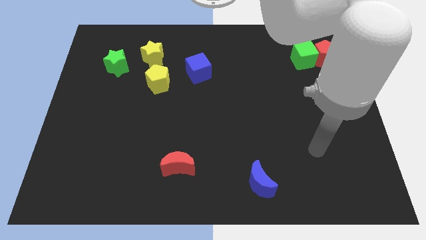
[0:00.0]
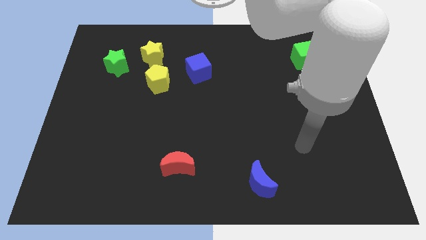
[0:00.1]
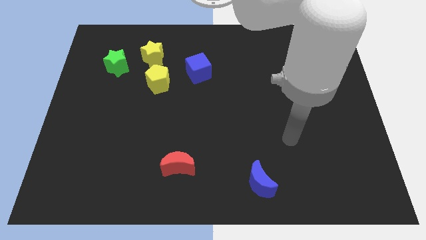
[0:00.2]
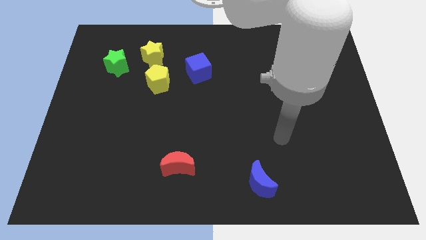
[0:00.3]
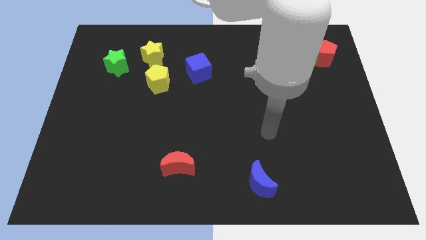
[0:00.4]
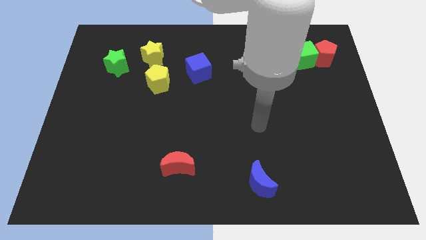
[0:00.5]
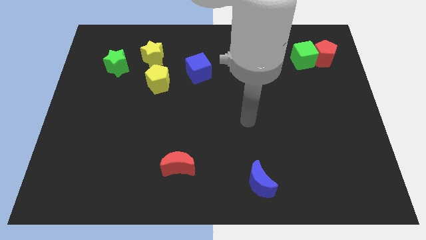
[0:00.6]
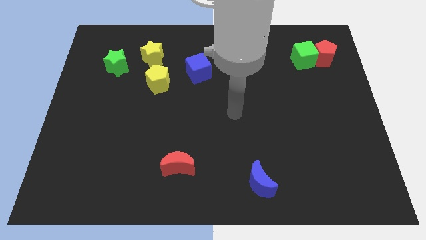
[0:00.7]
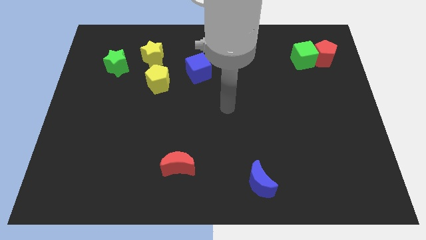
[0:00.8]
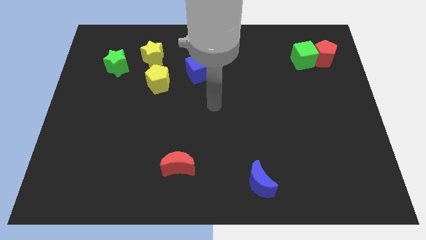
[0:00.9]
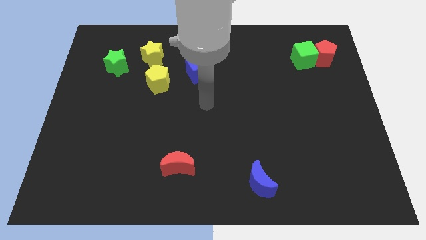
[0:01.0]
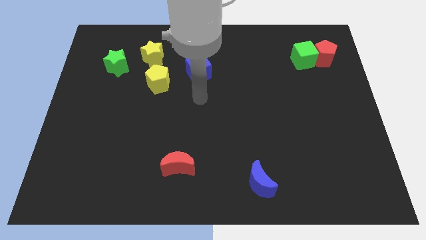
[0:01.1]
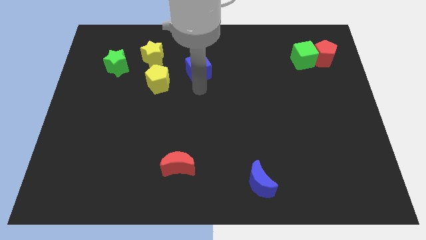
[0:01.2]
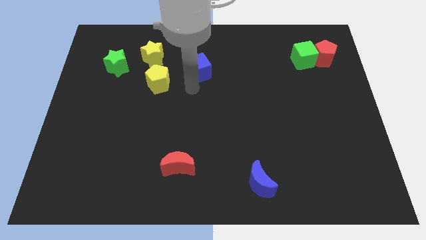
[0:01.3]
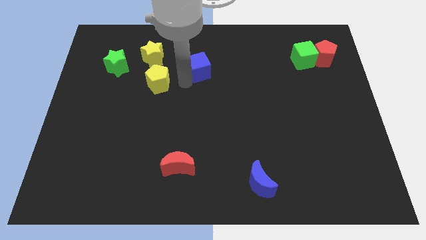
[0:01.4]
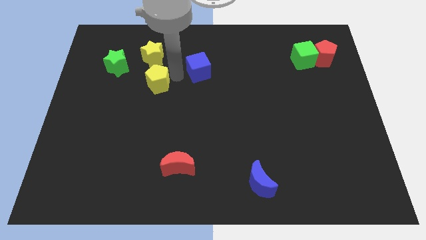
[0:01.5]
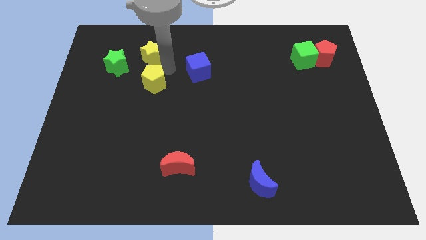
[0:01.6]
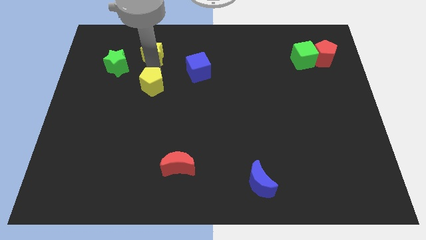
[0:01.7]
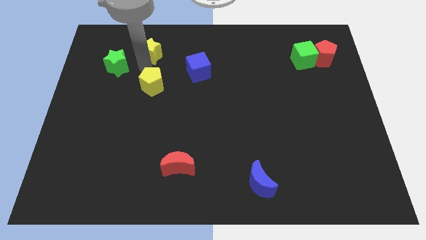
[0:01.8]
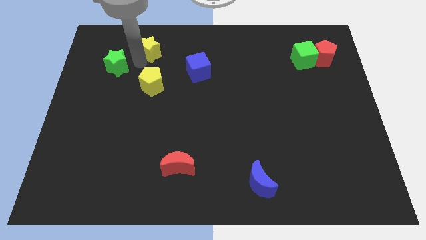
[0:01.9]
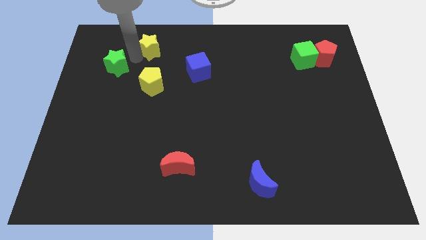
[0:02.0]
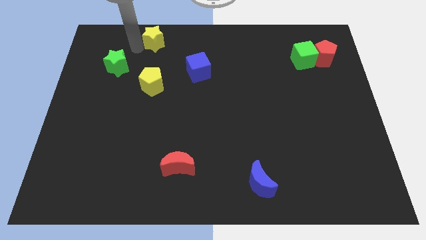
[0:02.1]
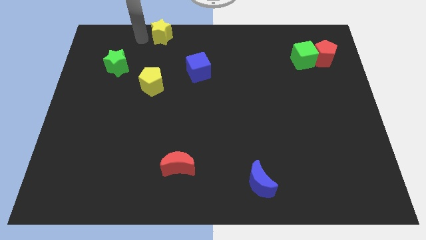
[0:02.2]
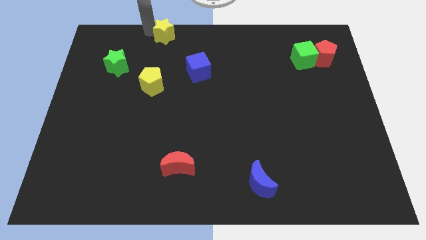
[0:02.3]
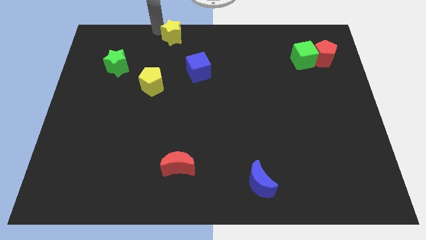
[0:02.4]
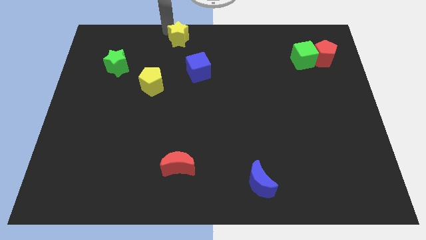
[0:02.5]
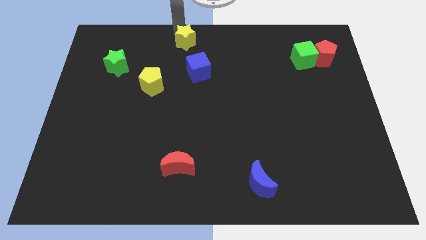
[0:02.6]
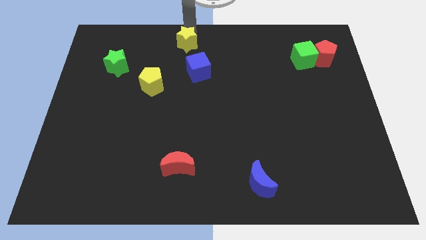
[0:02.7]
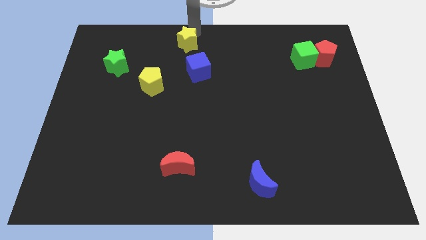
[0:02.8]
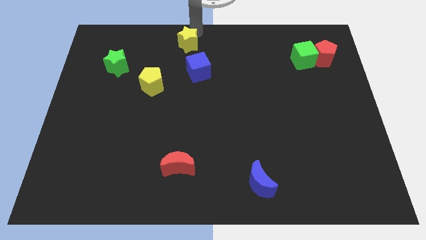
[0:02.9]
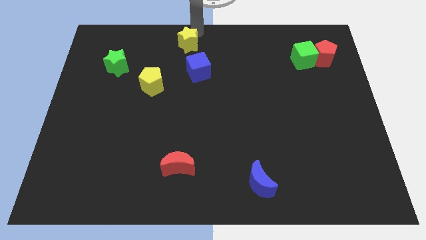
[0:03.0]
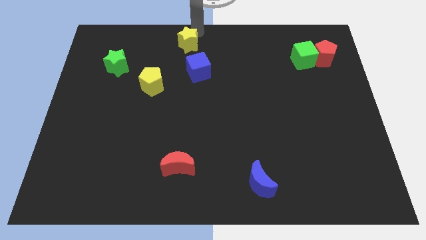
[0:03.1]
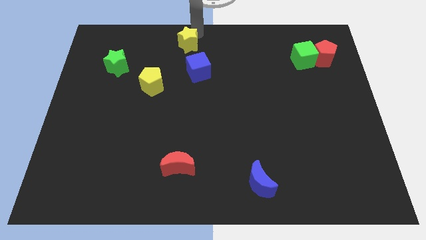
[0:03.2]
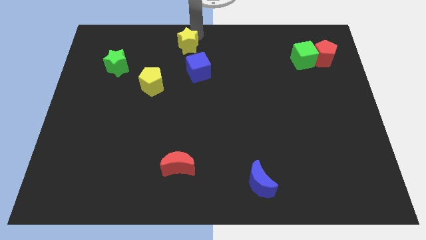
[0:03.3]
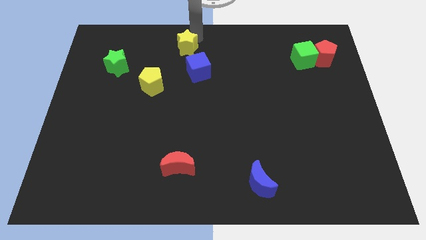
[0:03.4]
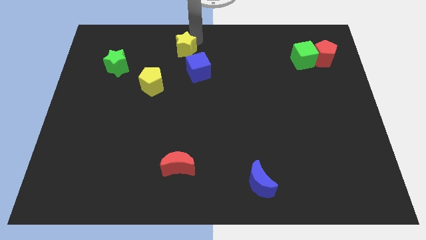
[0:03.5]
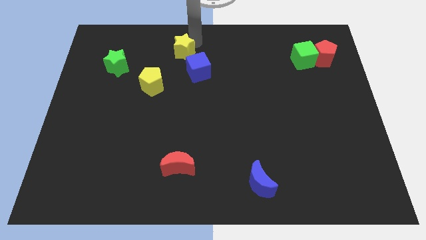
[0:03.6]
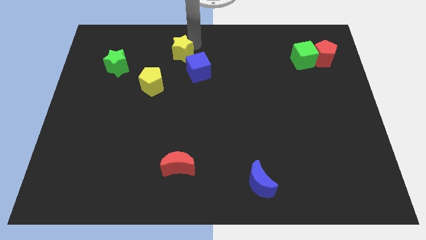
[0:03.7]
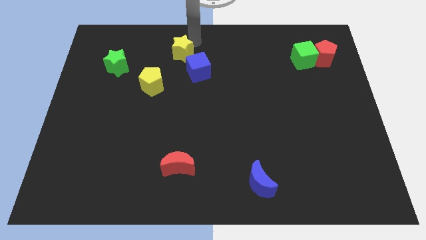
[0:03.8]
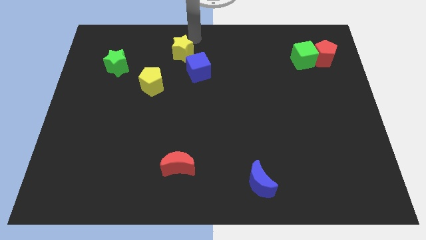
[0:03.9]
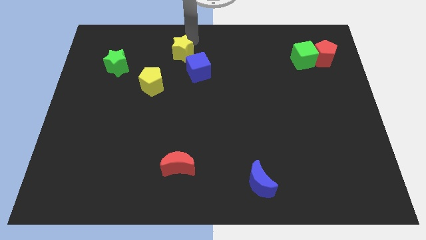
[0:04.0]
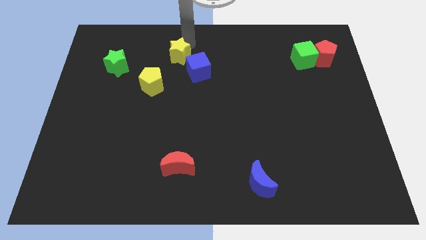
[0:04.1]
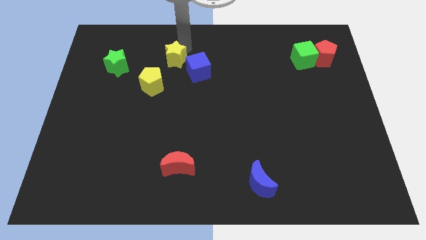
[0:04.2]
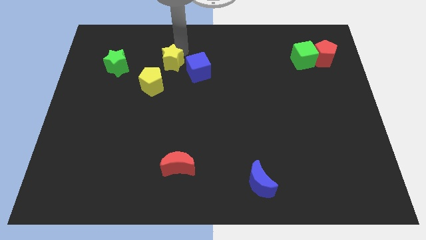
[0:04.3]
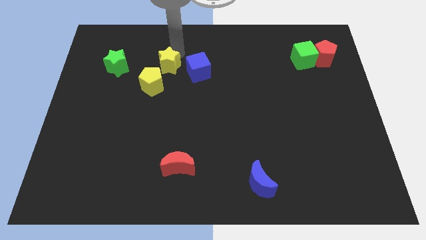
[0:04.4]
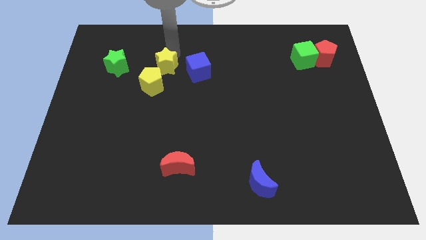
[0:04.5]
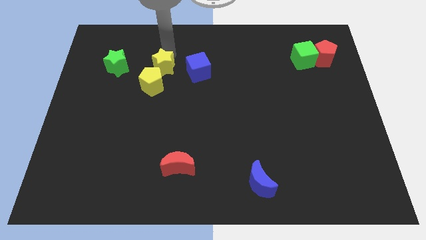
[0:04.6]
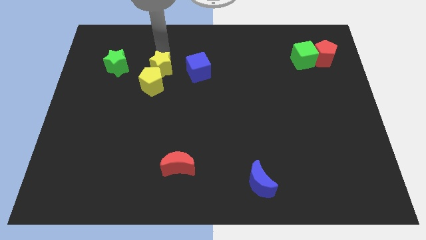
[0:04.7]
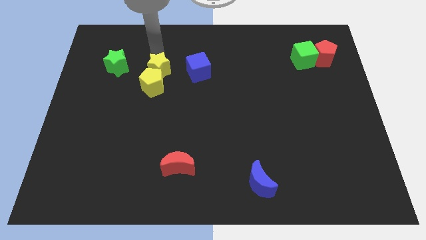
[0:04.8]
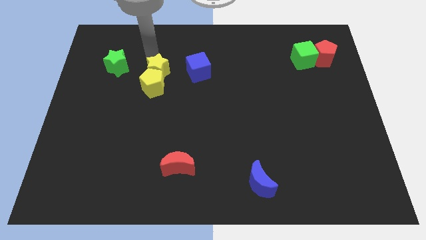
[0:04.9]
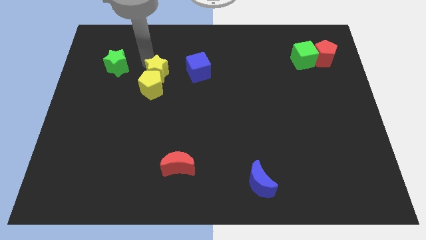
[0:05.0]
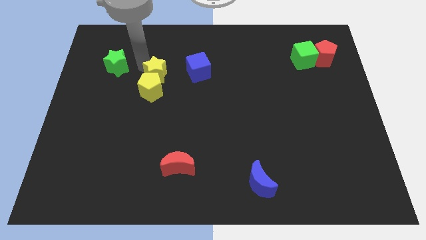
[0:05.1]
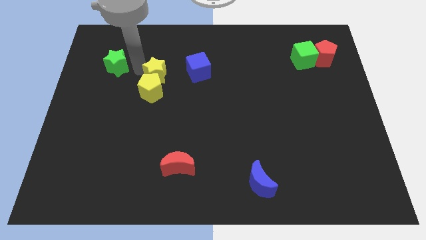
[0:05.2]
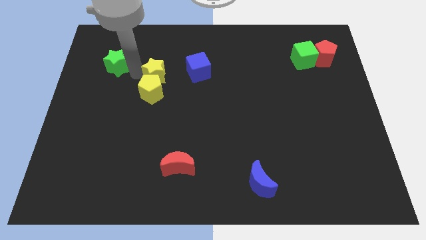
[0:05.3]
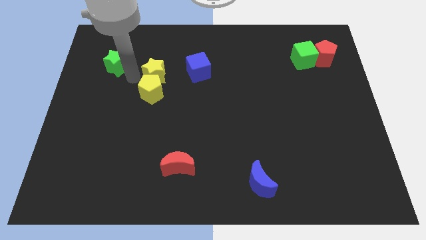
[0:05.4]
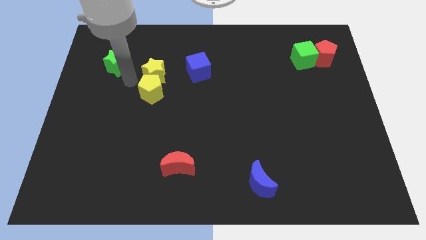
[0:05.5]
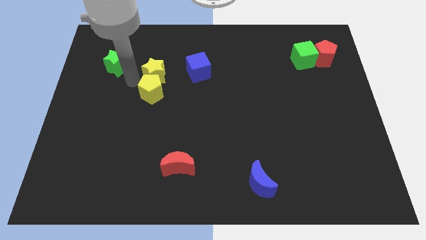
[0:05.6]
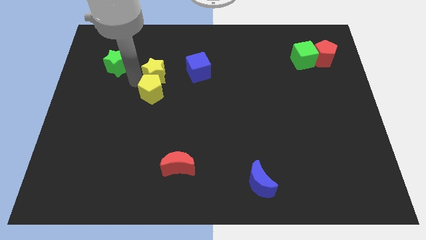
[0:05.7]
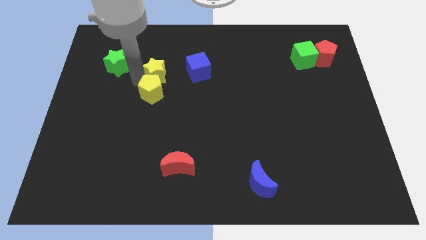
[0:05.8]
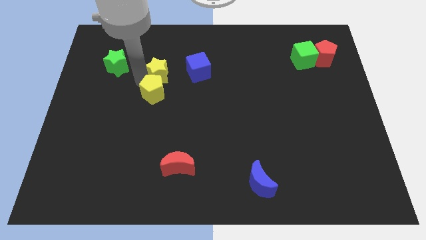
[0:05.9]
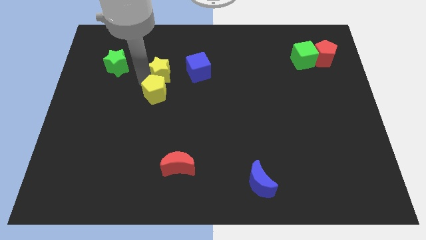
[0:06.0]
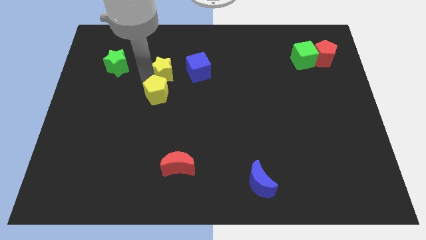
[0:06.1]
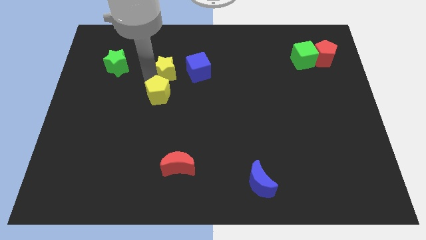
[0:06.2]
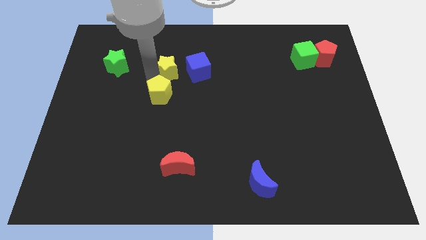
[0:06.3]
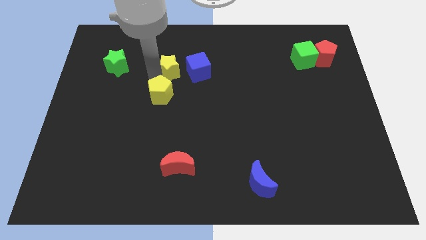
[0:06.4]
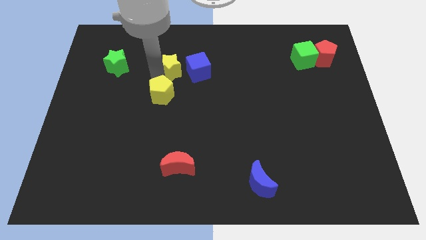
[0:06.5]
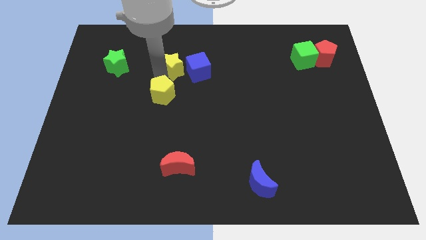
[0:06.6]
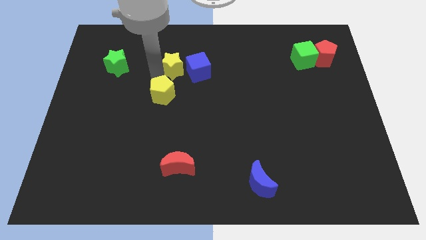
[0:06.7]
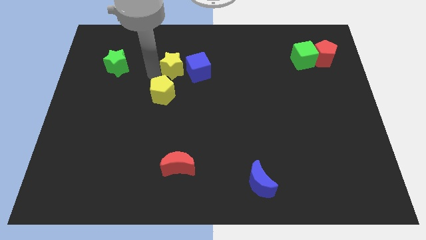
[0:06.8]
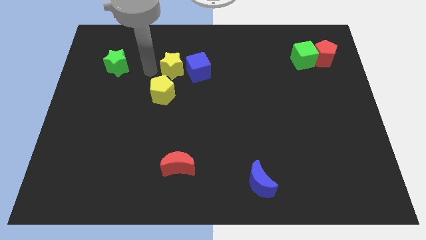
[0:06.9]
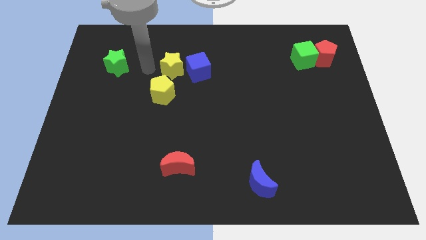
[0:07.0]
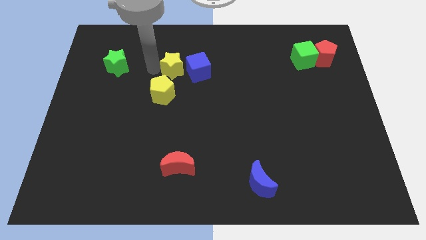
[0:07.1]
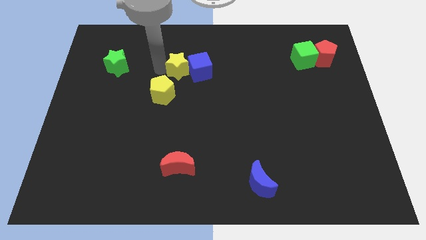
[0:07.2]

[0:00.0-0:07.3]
put the yellow star to the blue cube
